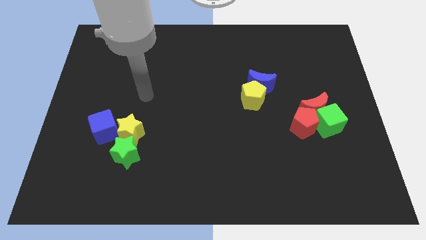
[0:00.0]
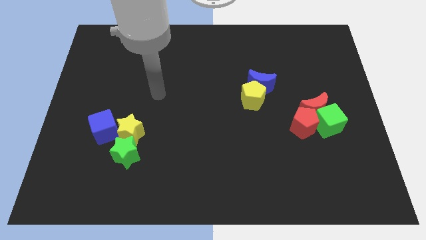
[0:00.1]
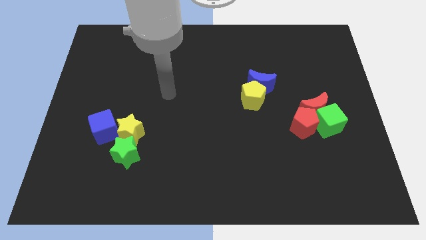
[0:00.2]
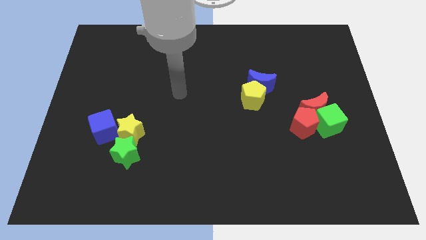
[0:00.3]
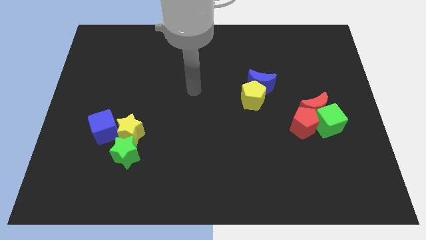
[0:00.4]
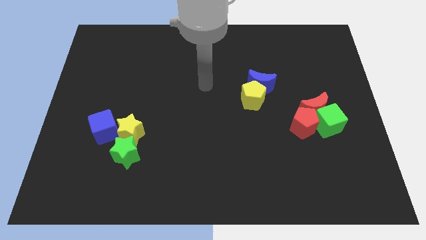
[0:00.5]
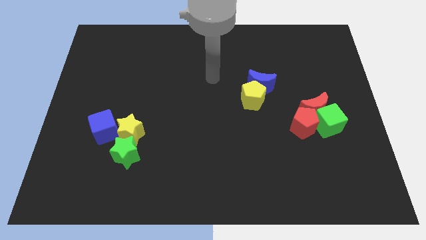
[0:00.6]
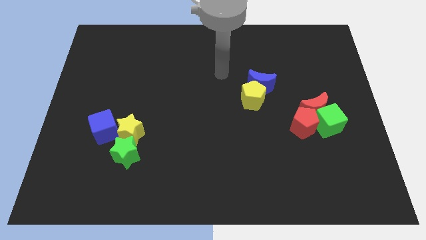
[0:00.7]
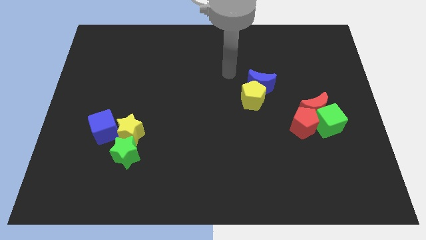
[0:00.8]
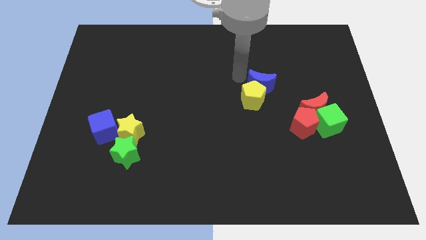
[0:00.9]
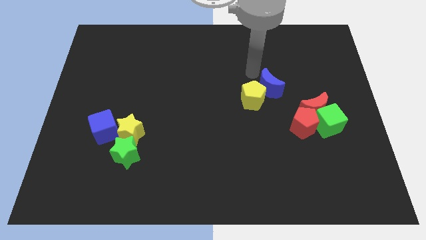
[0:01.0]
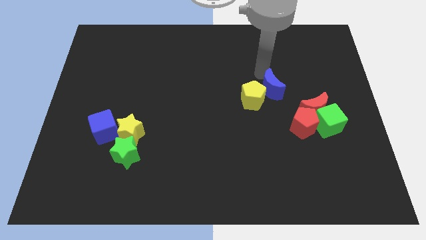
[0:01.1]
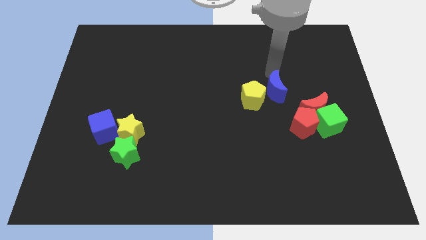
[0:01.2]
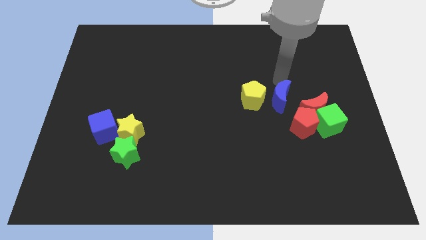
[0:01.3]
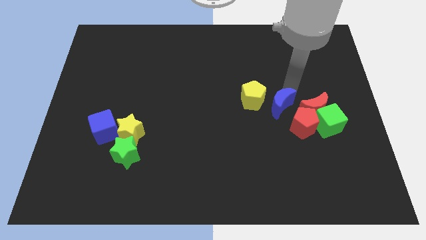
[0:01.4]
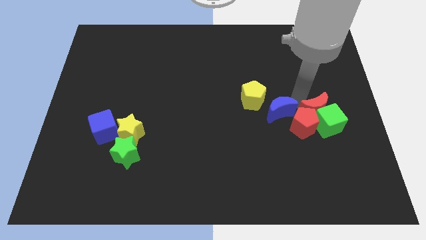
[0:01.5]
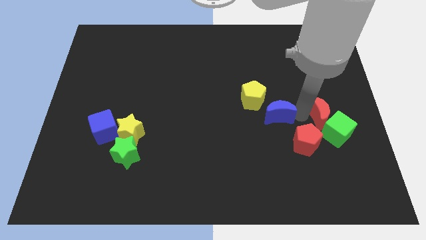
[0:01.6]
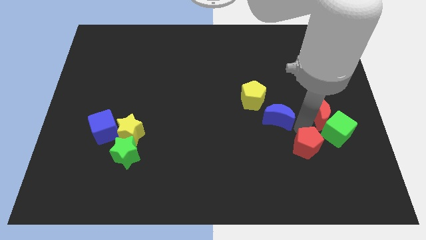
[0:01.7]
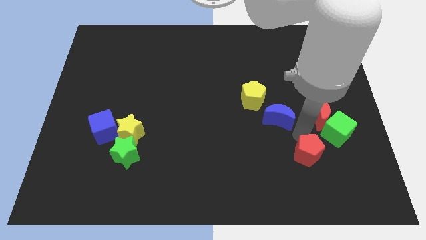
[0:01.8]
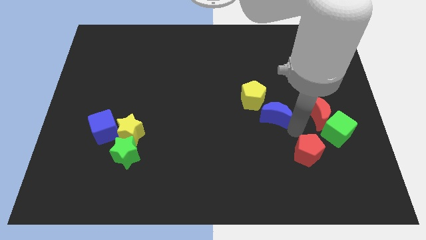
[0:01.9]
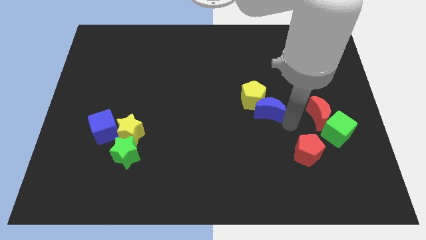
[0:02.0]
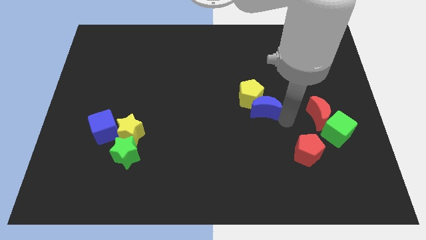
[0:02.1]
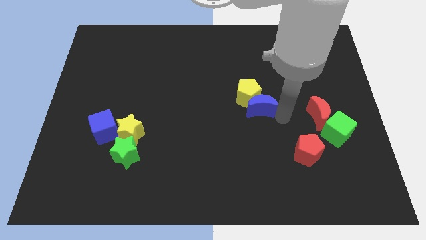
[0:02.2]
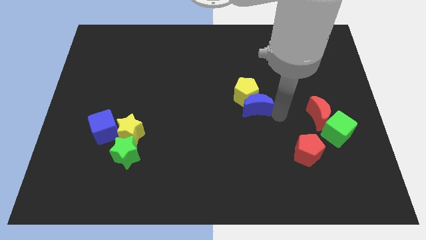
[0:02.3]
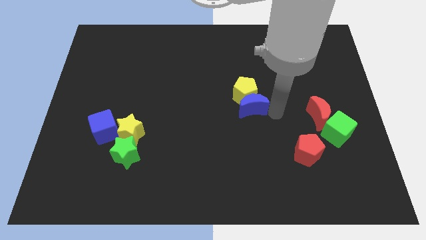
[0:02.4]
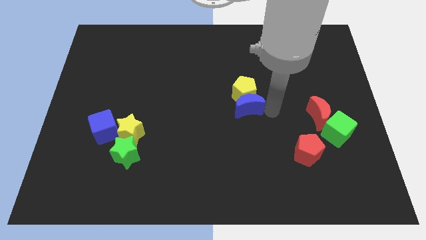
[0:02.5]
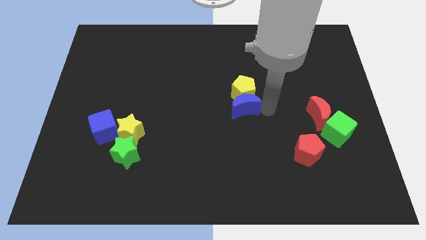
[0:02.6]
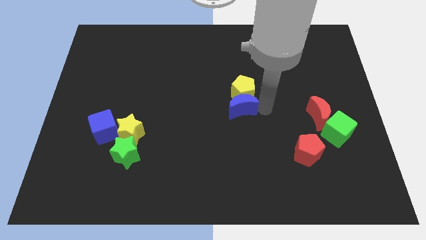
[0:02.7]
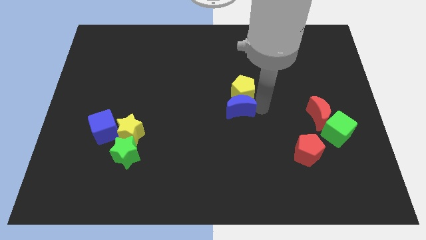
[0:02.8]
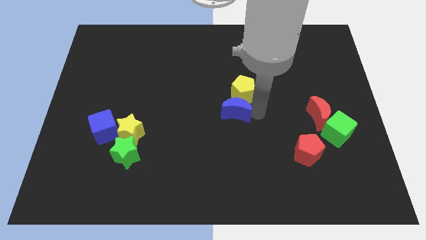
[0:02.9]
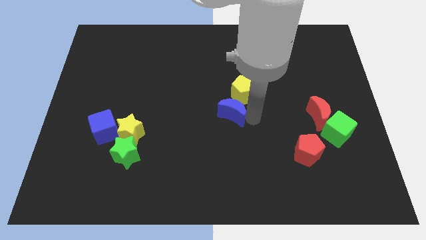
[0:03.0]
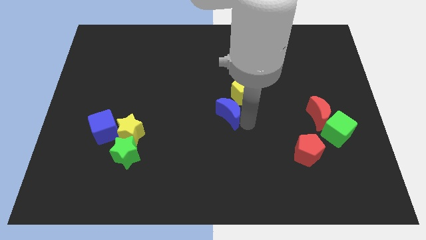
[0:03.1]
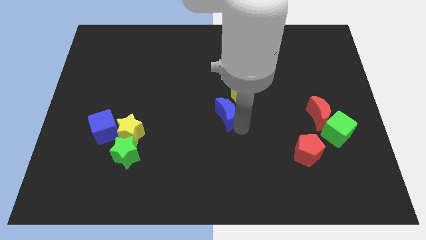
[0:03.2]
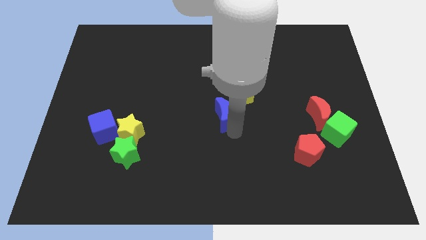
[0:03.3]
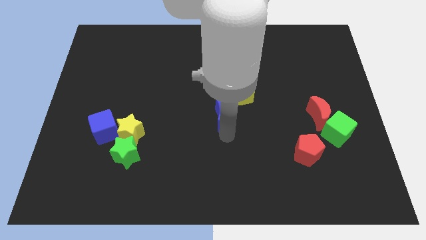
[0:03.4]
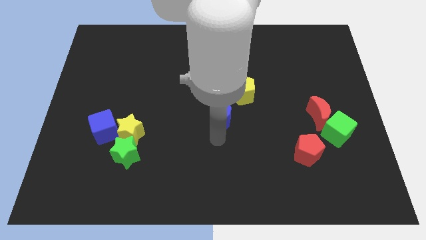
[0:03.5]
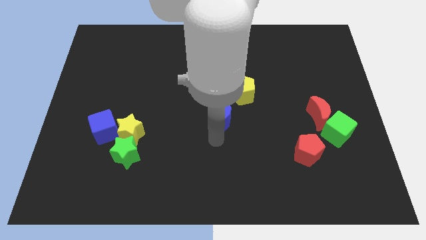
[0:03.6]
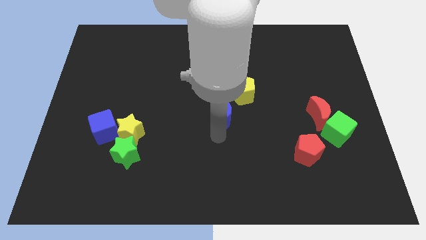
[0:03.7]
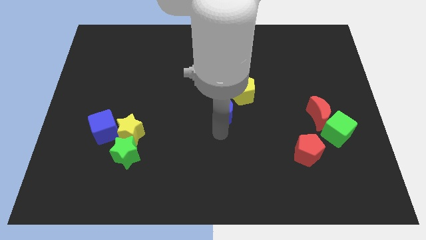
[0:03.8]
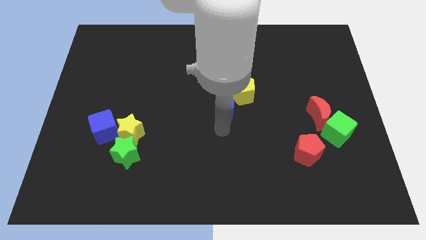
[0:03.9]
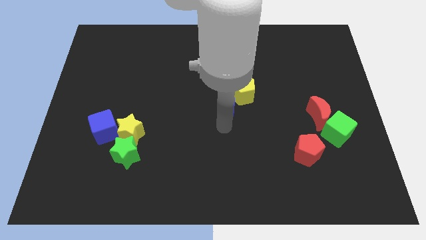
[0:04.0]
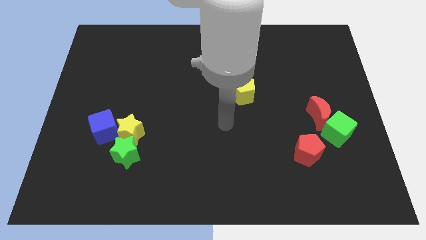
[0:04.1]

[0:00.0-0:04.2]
push the blue moon to the left somewhat

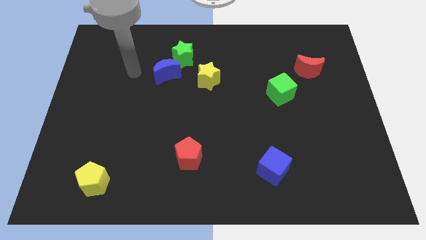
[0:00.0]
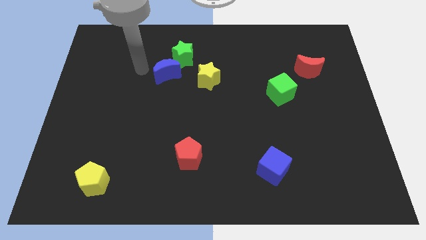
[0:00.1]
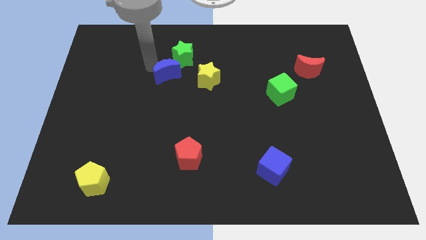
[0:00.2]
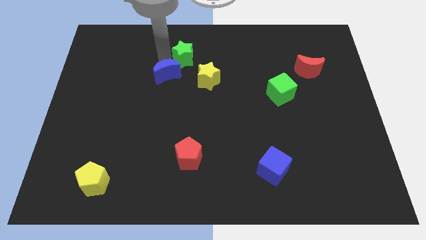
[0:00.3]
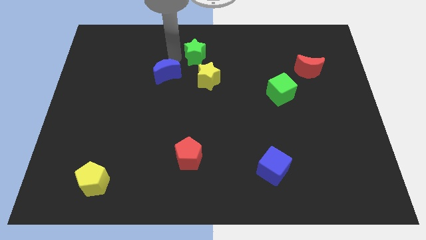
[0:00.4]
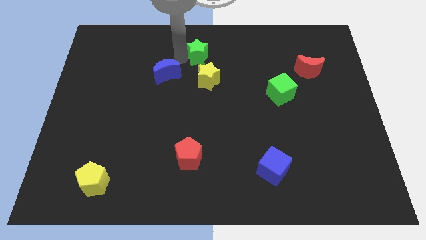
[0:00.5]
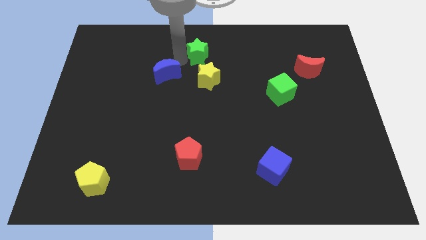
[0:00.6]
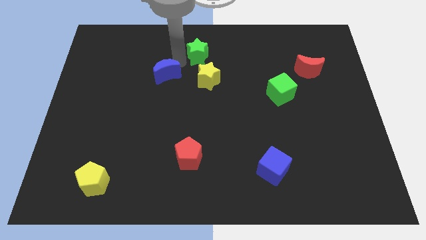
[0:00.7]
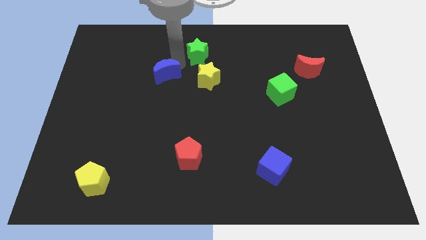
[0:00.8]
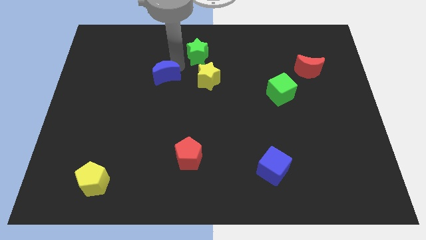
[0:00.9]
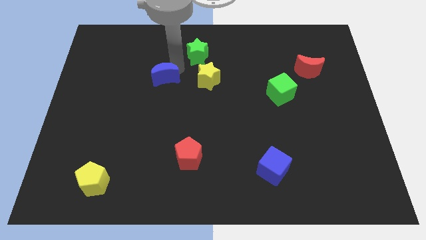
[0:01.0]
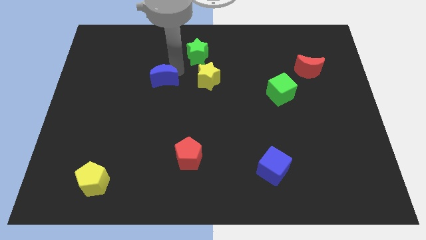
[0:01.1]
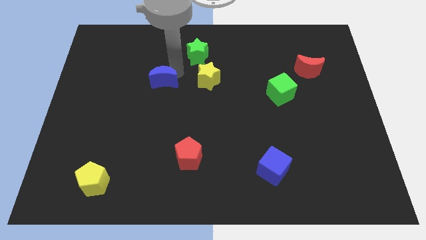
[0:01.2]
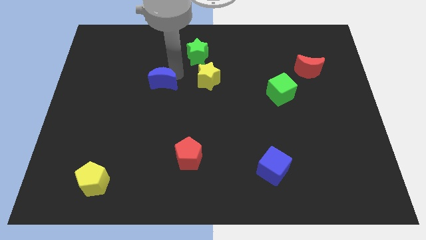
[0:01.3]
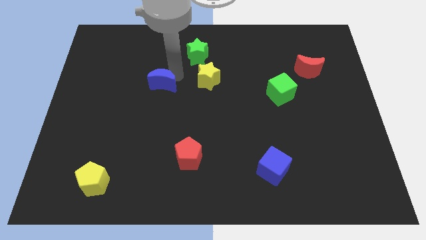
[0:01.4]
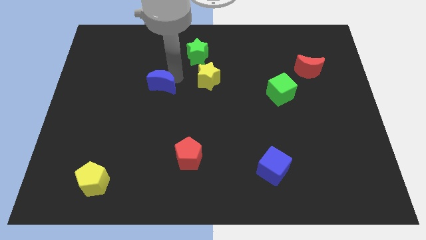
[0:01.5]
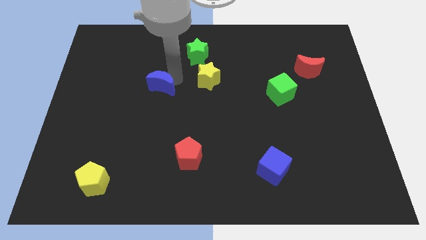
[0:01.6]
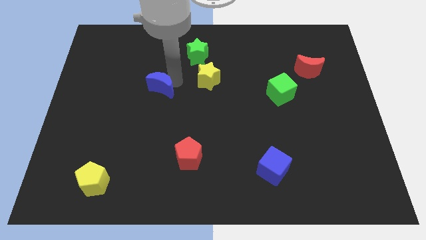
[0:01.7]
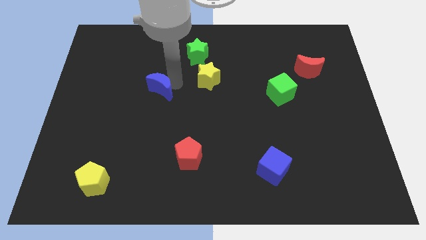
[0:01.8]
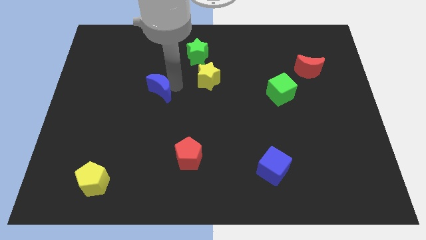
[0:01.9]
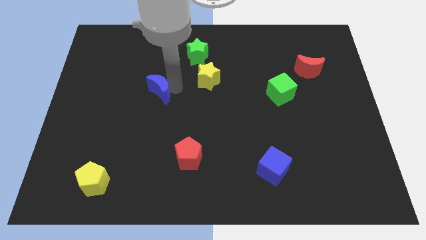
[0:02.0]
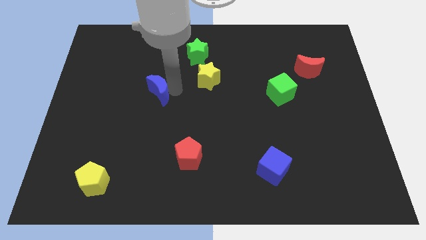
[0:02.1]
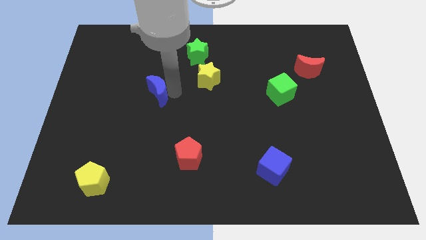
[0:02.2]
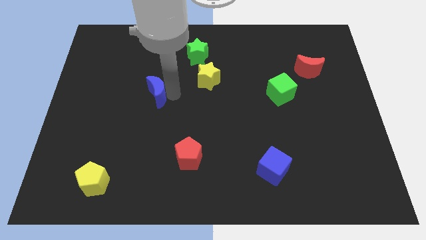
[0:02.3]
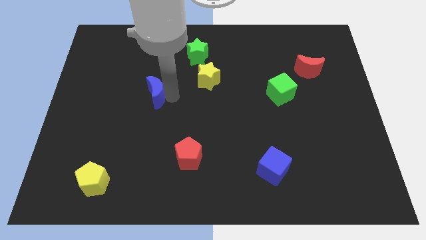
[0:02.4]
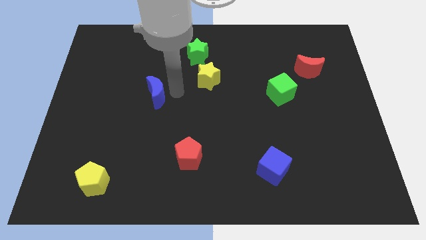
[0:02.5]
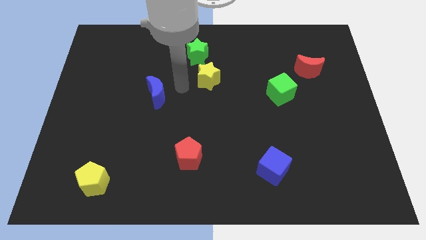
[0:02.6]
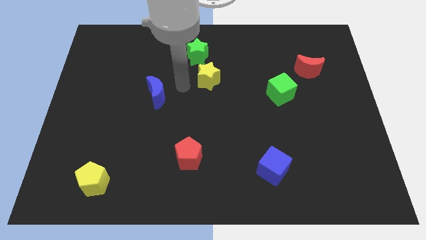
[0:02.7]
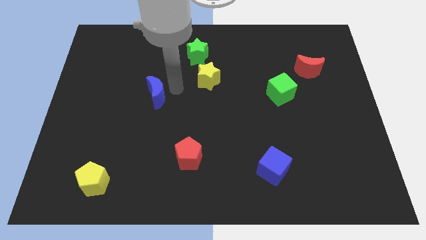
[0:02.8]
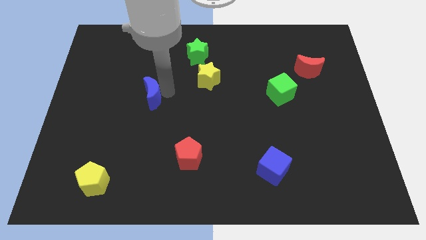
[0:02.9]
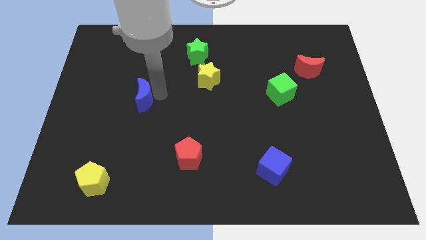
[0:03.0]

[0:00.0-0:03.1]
move the blue moon down and left a little

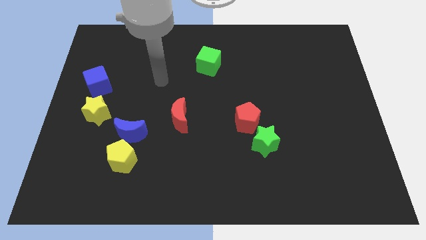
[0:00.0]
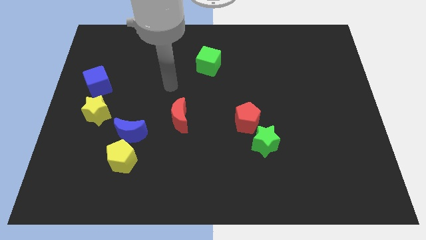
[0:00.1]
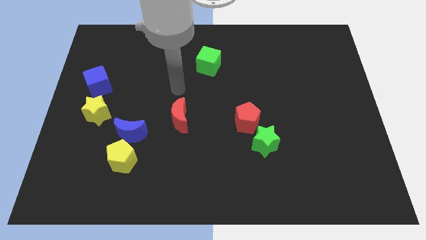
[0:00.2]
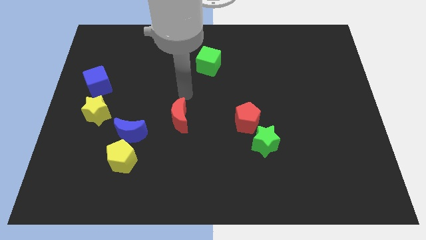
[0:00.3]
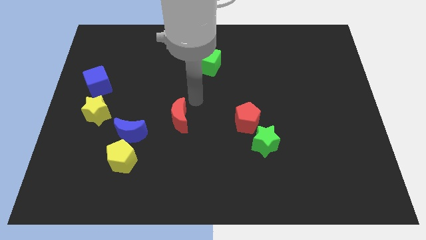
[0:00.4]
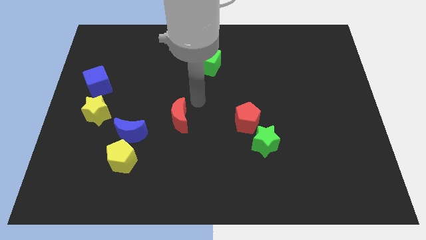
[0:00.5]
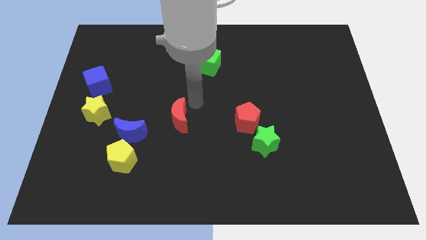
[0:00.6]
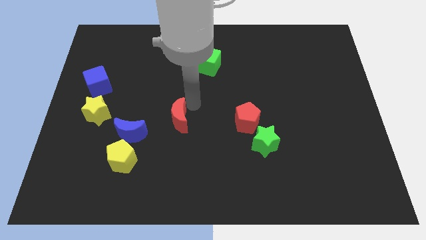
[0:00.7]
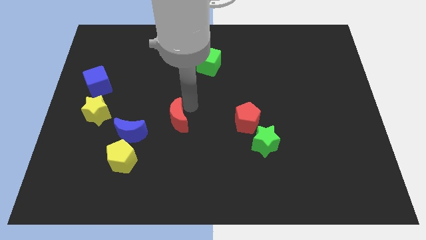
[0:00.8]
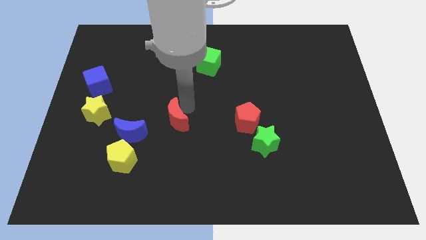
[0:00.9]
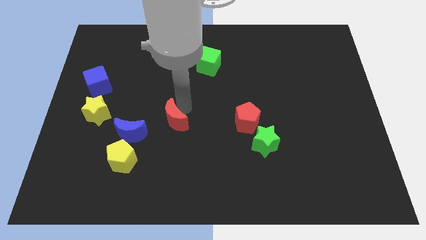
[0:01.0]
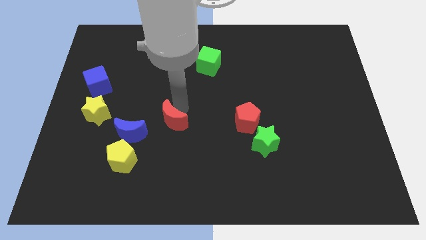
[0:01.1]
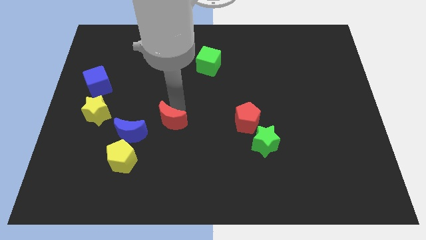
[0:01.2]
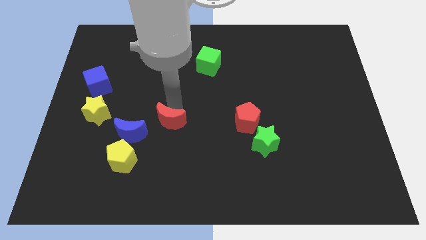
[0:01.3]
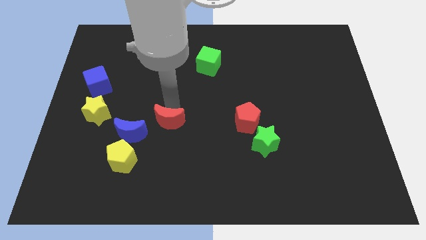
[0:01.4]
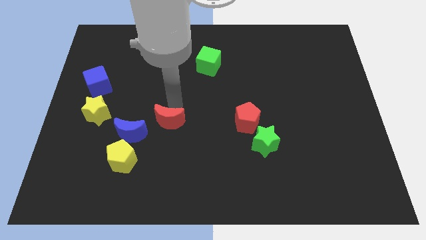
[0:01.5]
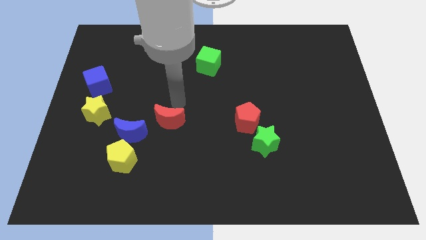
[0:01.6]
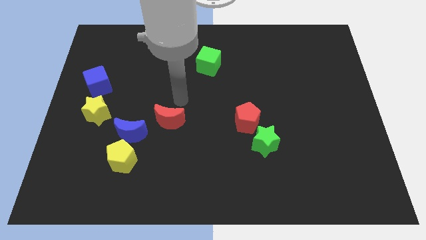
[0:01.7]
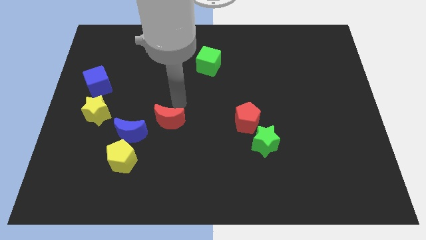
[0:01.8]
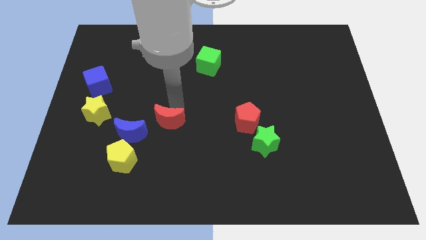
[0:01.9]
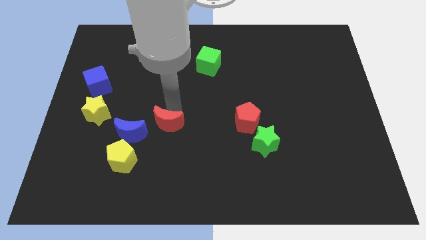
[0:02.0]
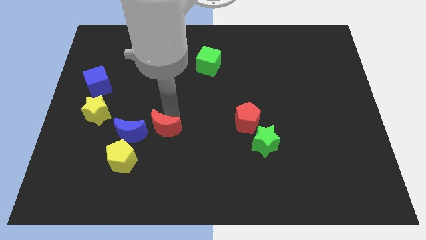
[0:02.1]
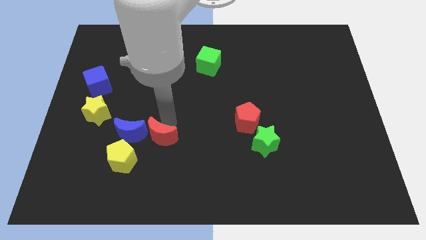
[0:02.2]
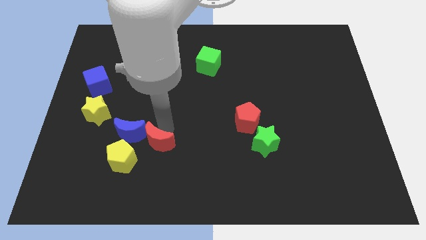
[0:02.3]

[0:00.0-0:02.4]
move the red moon a little bit downwards and then to the left
